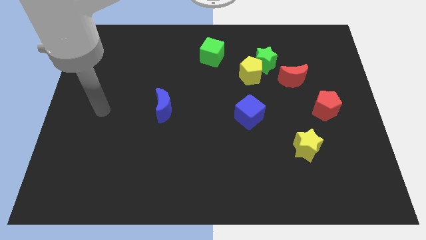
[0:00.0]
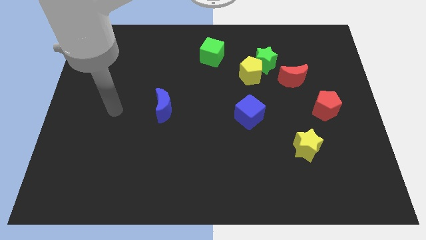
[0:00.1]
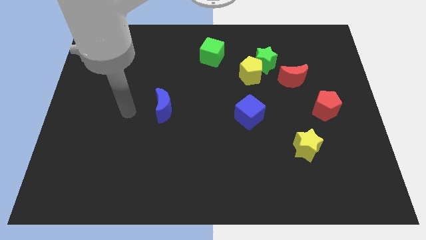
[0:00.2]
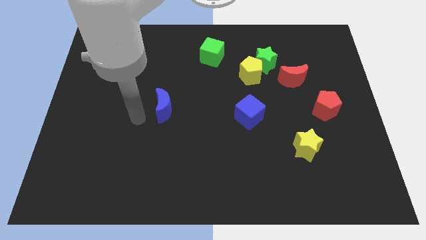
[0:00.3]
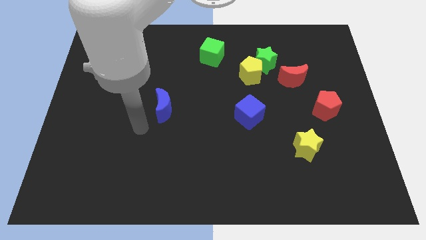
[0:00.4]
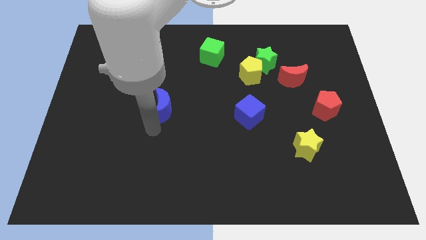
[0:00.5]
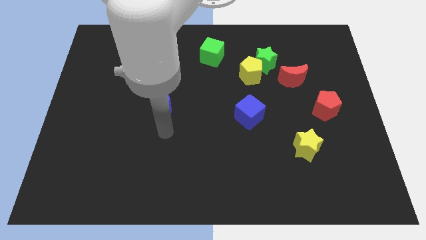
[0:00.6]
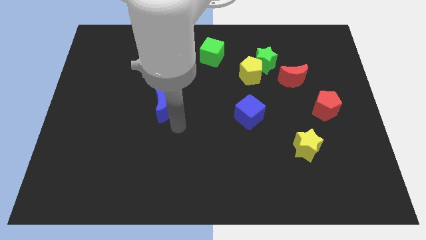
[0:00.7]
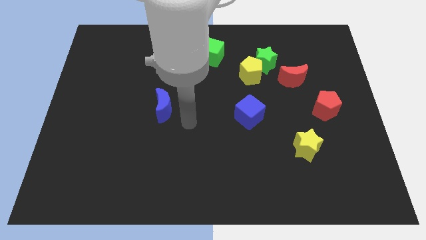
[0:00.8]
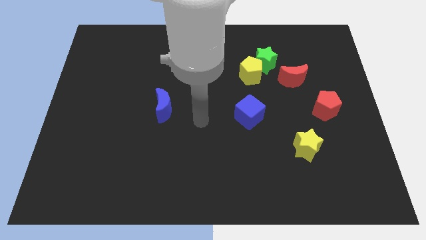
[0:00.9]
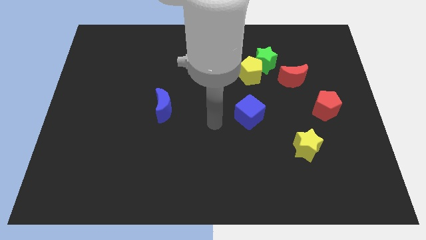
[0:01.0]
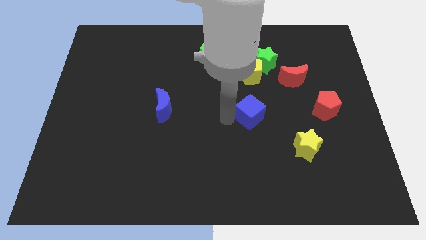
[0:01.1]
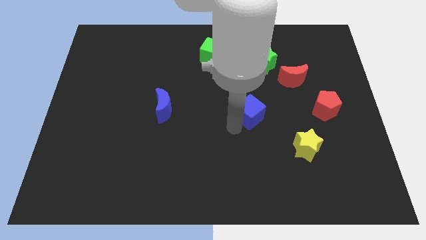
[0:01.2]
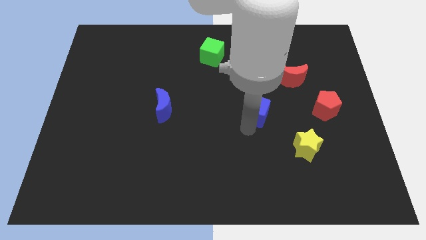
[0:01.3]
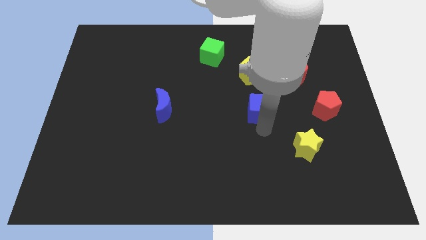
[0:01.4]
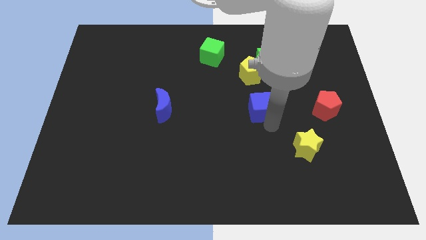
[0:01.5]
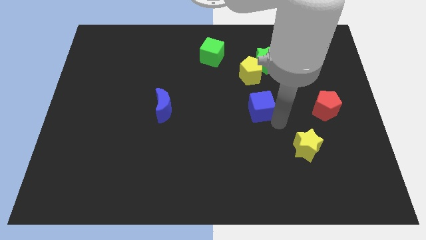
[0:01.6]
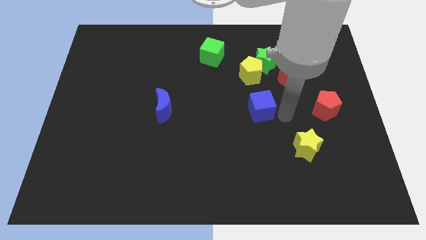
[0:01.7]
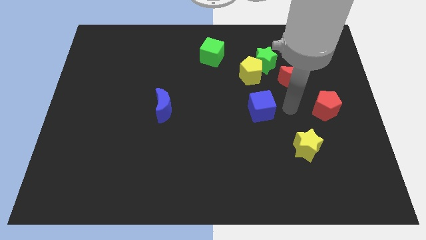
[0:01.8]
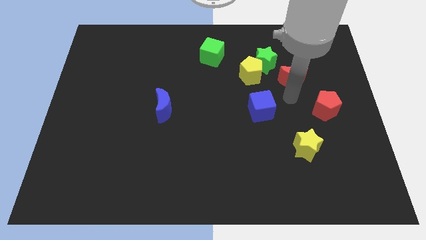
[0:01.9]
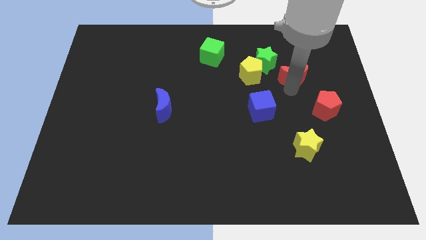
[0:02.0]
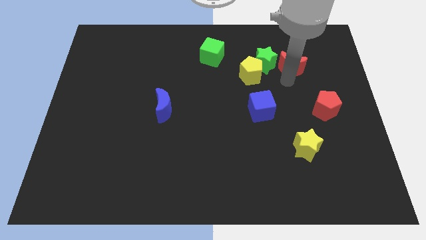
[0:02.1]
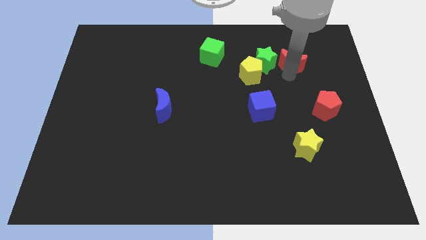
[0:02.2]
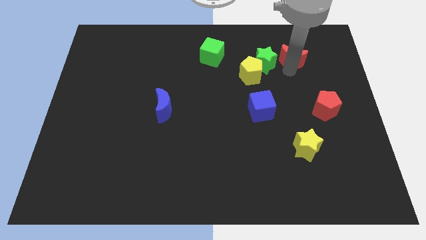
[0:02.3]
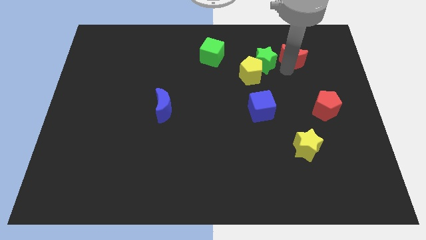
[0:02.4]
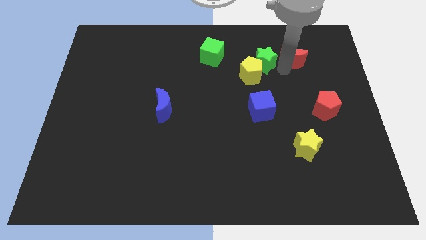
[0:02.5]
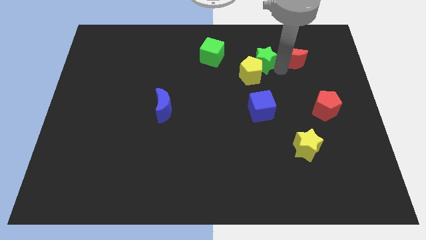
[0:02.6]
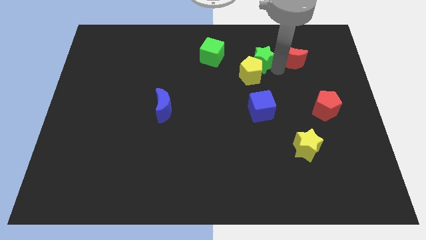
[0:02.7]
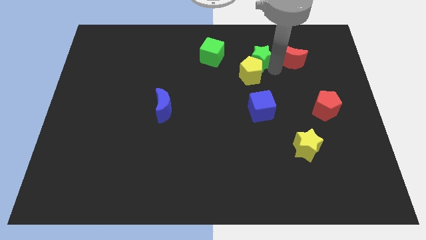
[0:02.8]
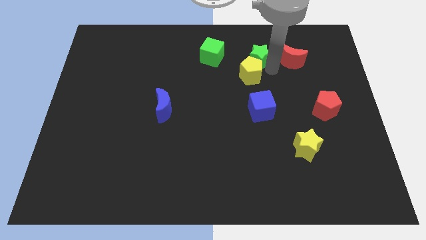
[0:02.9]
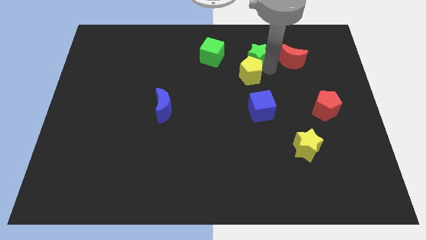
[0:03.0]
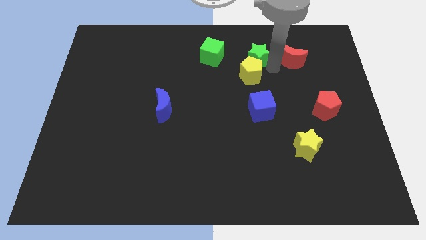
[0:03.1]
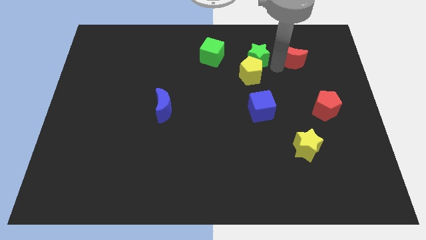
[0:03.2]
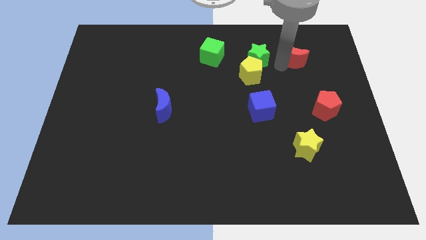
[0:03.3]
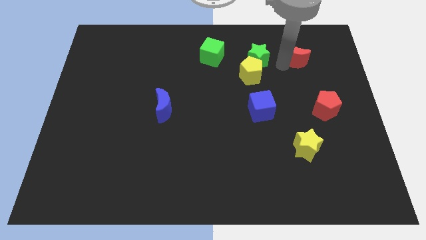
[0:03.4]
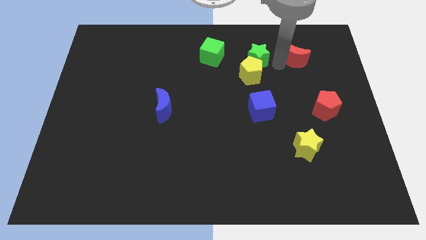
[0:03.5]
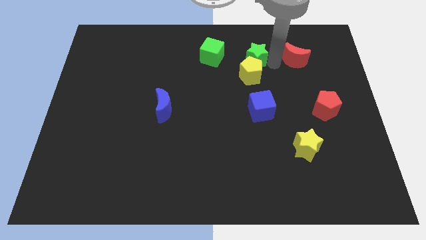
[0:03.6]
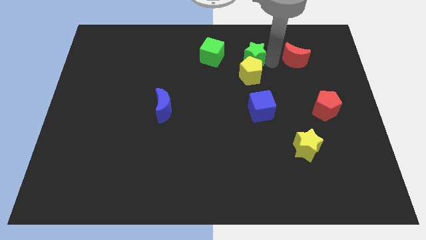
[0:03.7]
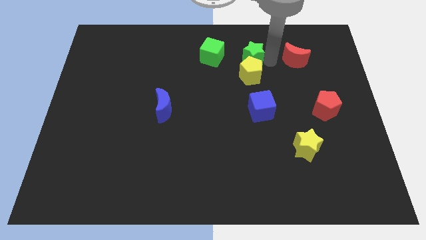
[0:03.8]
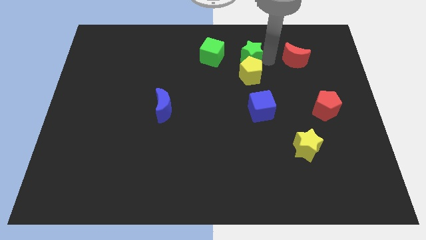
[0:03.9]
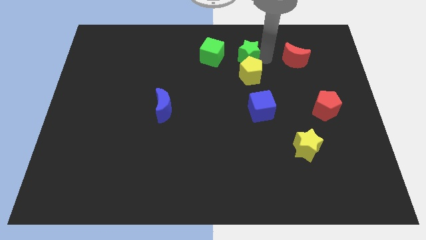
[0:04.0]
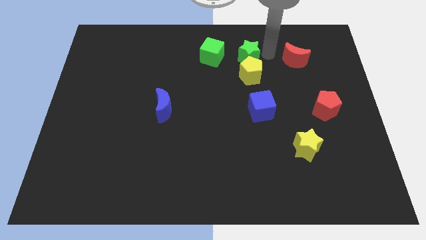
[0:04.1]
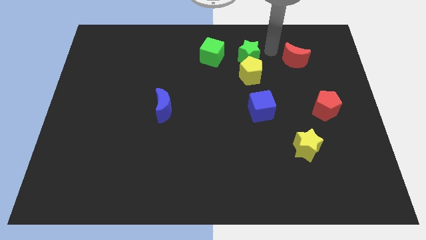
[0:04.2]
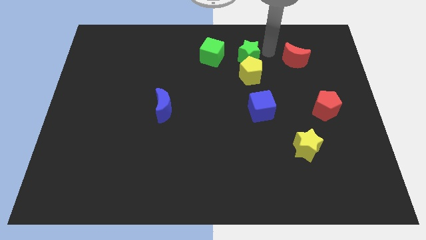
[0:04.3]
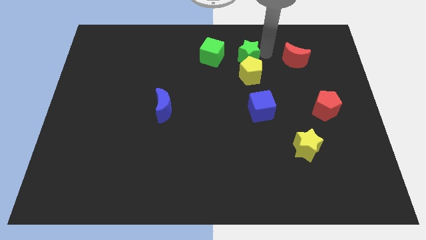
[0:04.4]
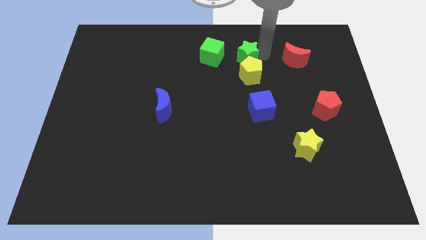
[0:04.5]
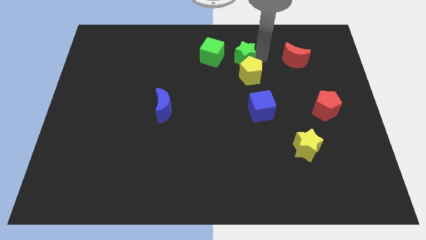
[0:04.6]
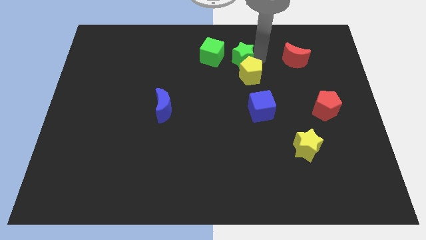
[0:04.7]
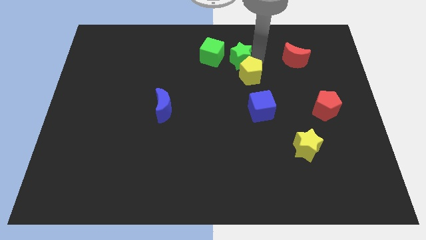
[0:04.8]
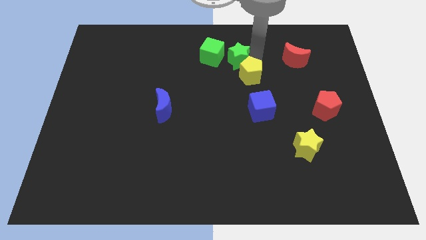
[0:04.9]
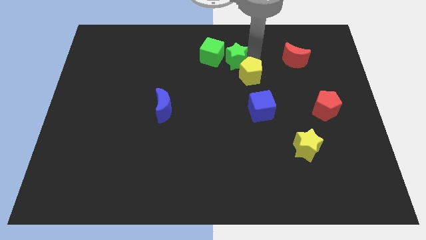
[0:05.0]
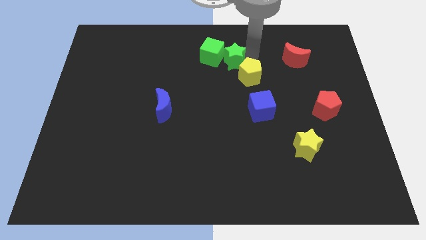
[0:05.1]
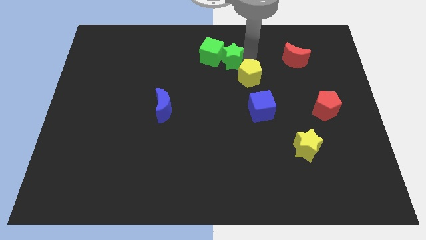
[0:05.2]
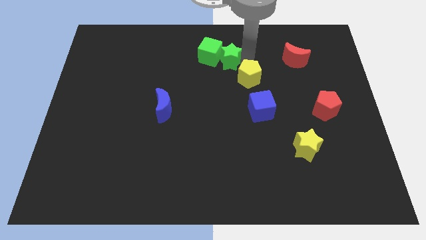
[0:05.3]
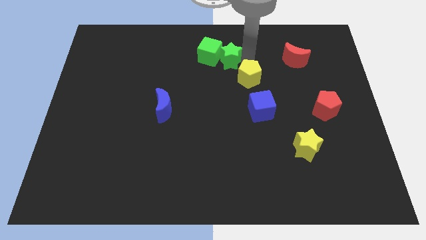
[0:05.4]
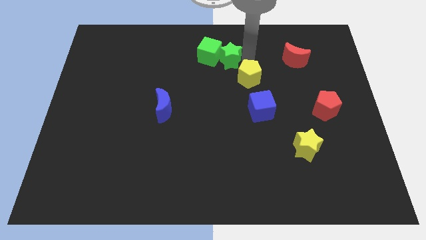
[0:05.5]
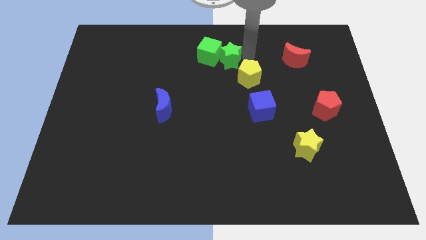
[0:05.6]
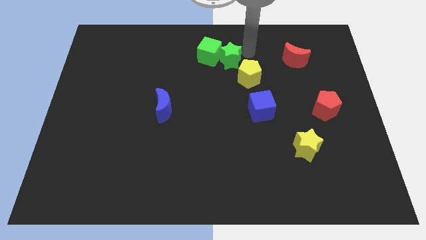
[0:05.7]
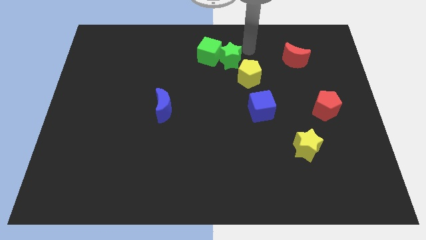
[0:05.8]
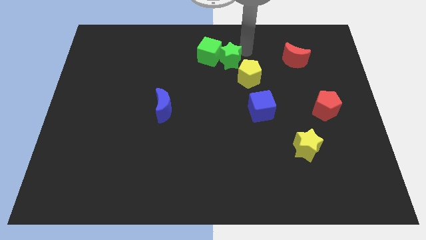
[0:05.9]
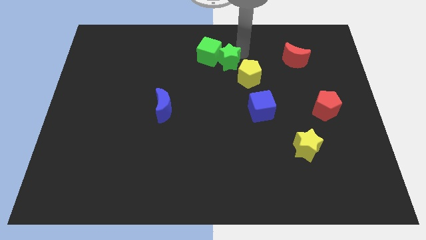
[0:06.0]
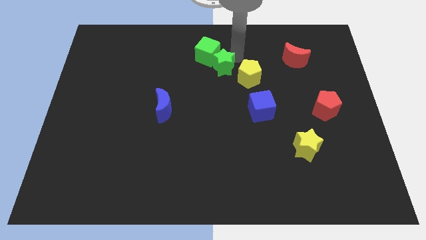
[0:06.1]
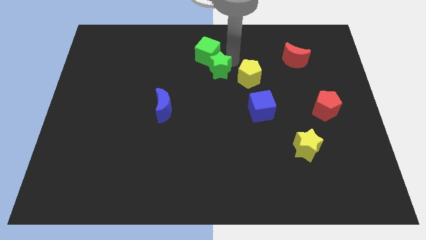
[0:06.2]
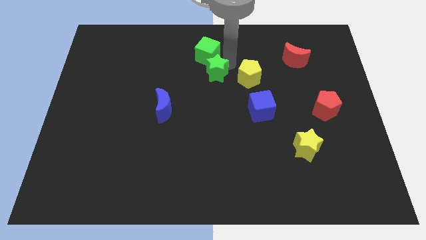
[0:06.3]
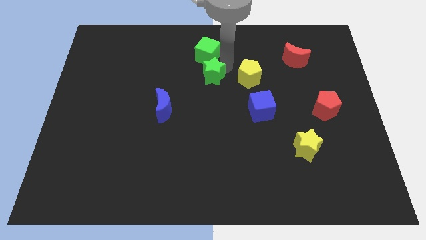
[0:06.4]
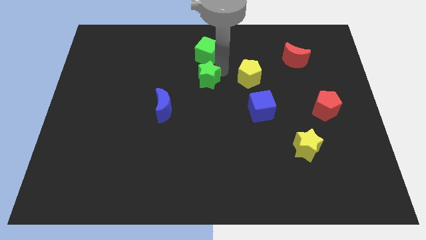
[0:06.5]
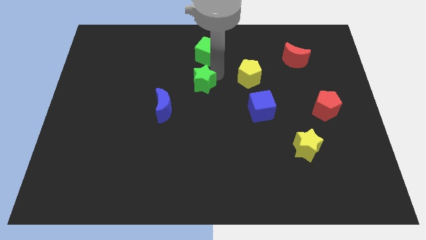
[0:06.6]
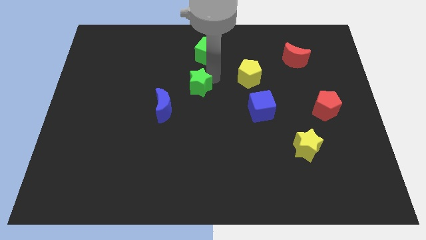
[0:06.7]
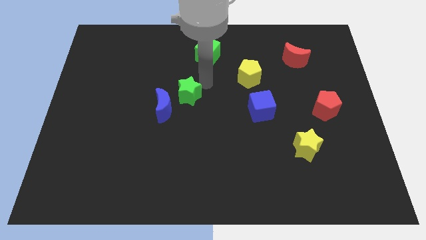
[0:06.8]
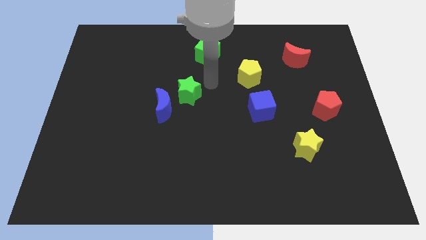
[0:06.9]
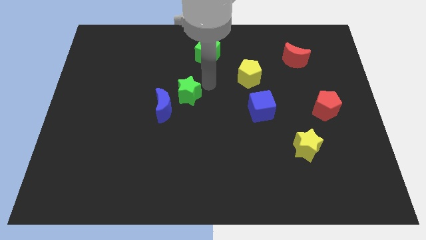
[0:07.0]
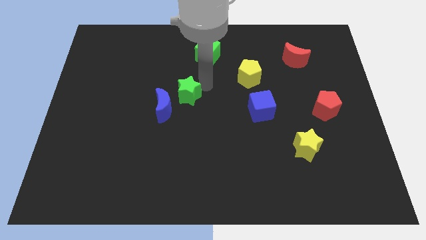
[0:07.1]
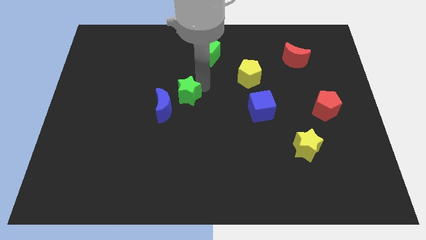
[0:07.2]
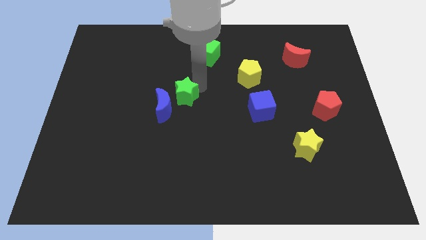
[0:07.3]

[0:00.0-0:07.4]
slide the green star close to the blue moon
